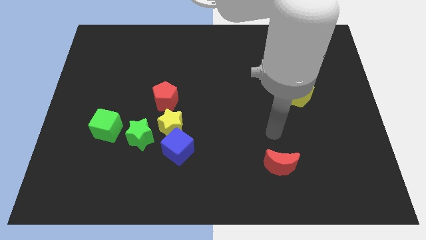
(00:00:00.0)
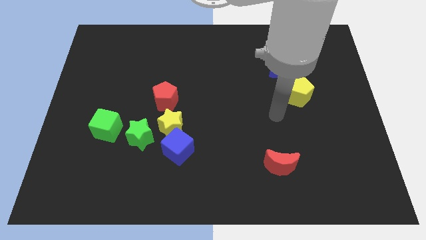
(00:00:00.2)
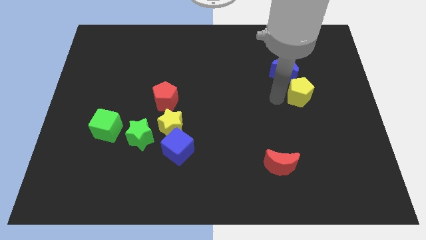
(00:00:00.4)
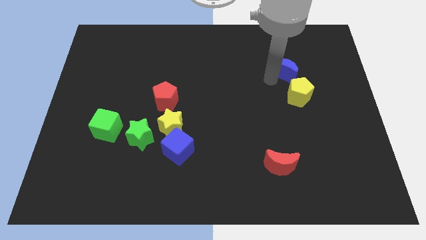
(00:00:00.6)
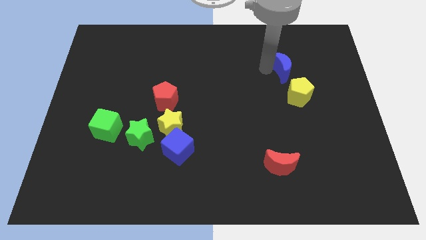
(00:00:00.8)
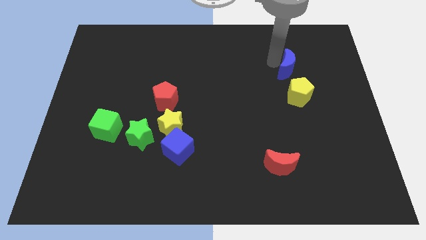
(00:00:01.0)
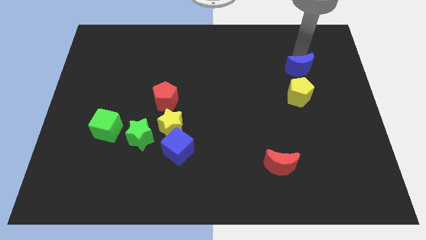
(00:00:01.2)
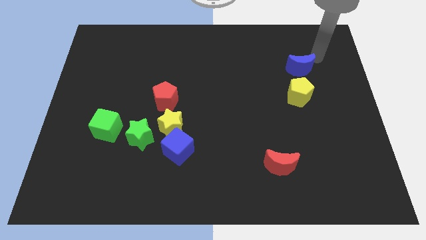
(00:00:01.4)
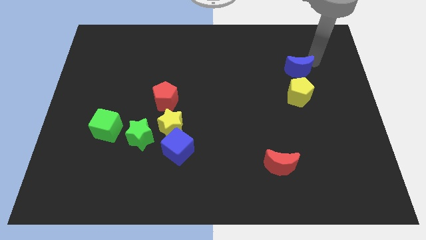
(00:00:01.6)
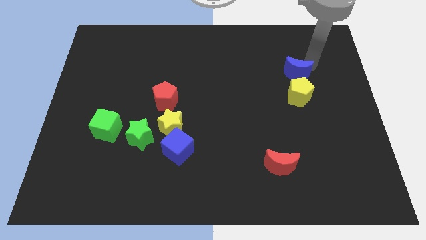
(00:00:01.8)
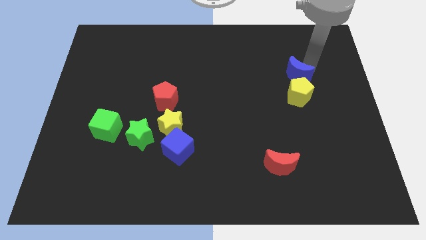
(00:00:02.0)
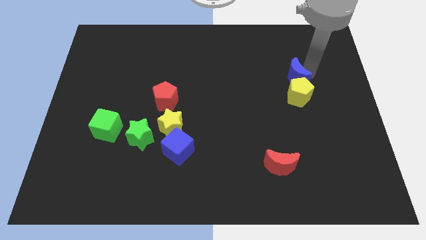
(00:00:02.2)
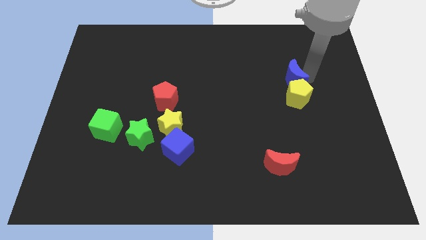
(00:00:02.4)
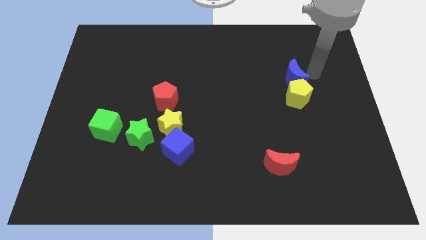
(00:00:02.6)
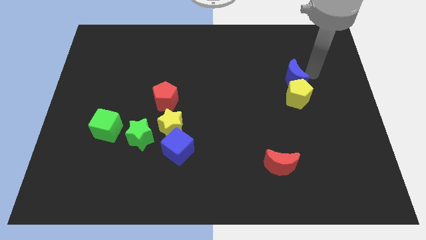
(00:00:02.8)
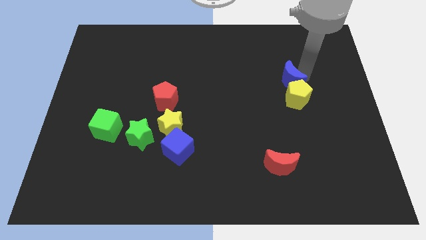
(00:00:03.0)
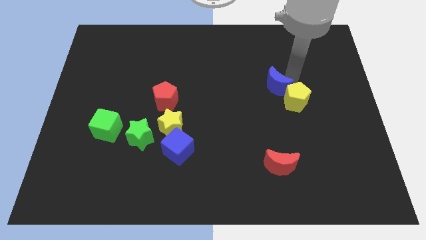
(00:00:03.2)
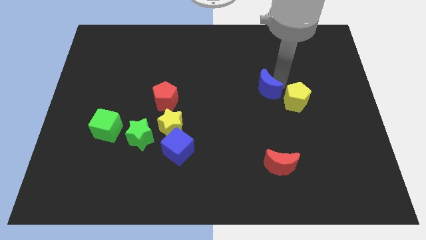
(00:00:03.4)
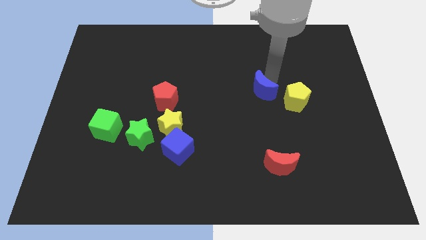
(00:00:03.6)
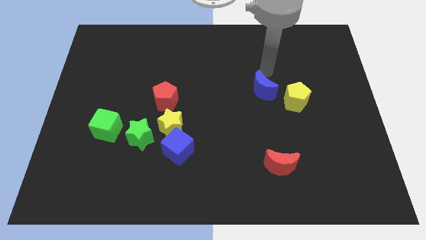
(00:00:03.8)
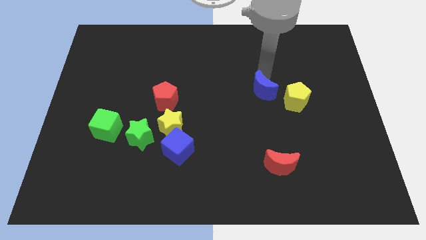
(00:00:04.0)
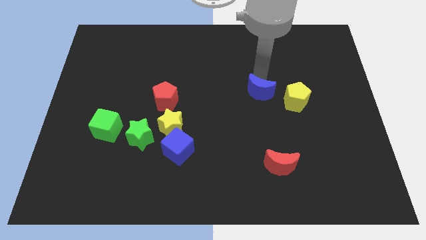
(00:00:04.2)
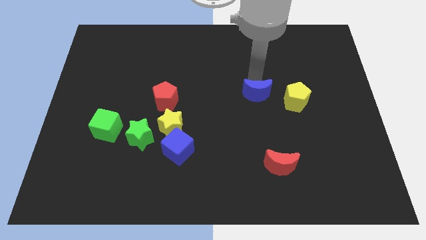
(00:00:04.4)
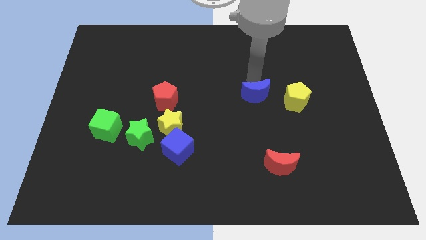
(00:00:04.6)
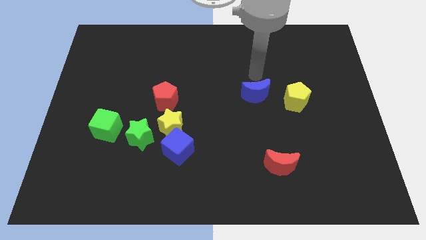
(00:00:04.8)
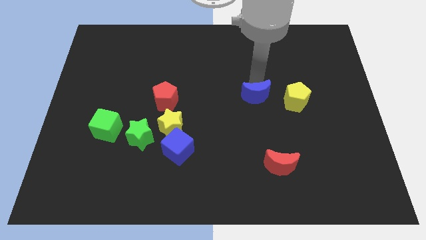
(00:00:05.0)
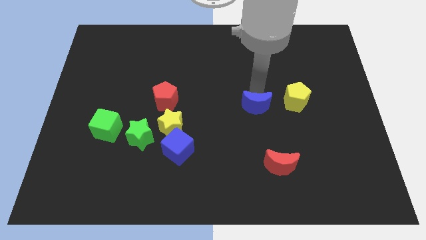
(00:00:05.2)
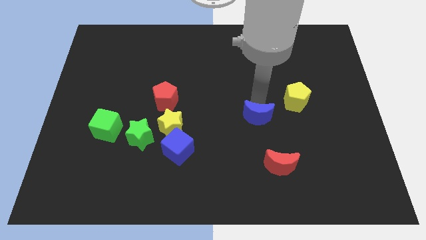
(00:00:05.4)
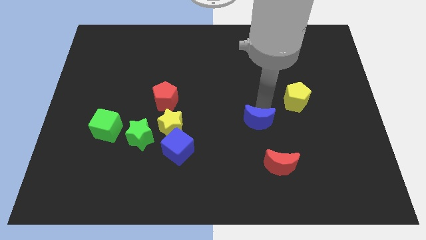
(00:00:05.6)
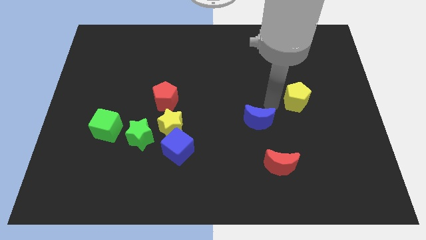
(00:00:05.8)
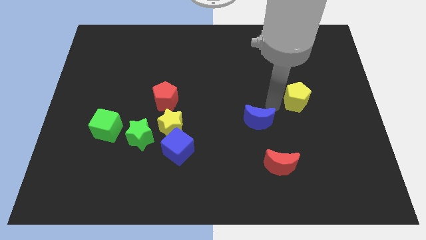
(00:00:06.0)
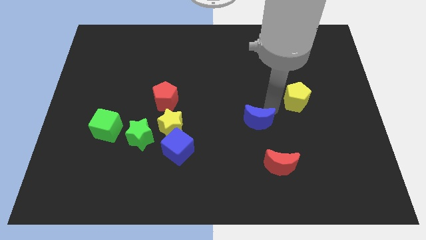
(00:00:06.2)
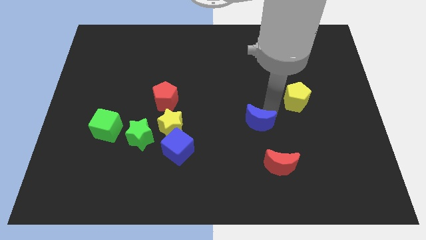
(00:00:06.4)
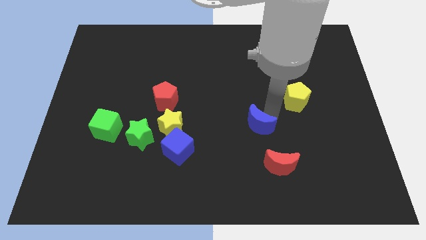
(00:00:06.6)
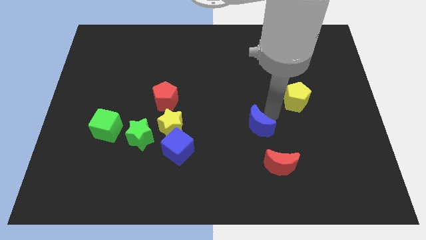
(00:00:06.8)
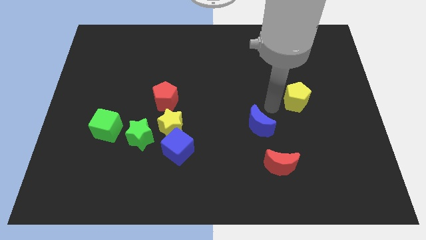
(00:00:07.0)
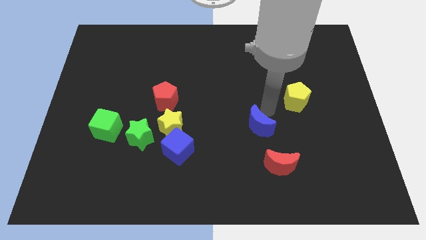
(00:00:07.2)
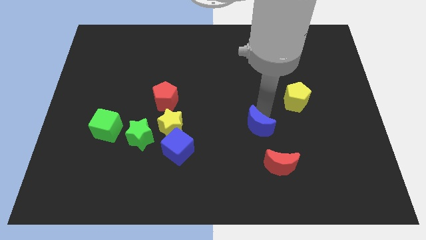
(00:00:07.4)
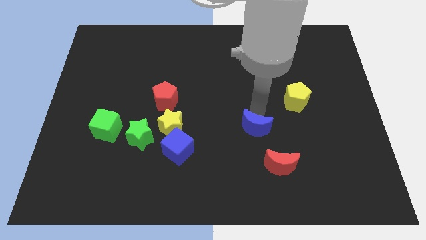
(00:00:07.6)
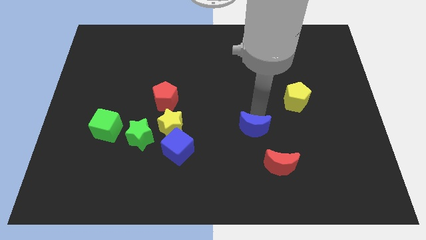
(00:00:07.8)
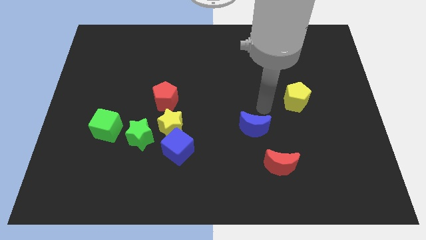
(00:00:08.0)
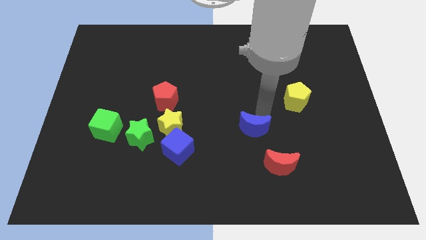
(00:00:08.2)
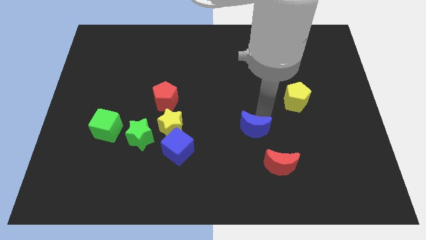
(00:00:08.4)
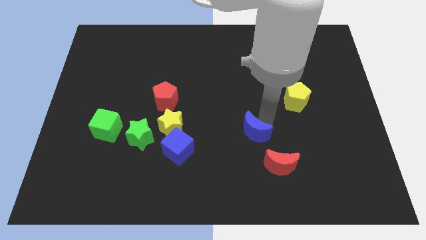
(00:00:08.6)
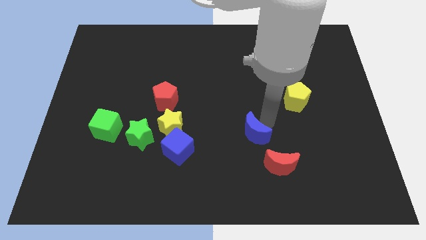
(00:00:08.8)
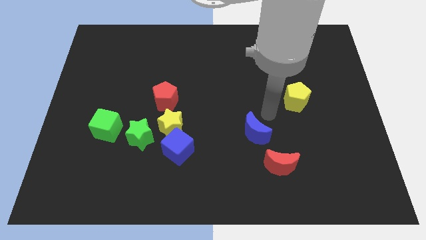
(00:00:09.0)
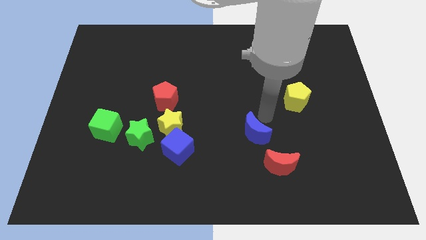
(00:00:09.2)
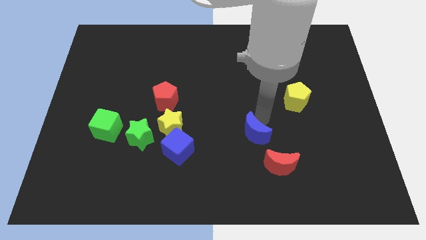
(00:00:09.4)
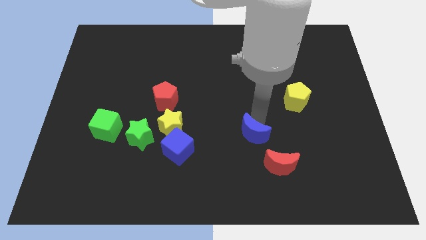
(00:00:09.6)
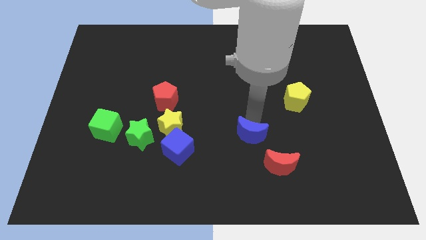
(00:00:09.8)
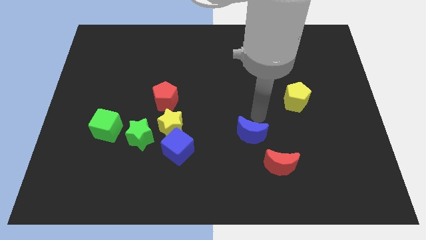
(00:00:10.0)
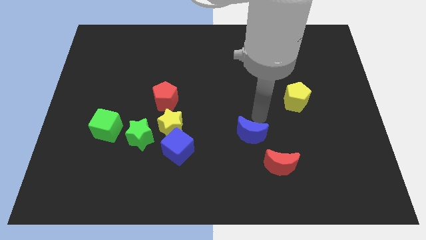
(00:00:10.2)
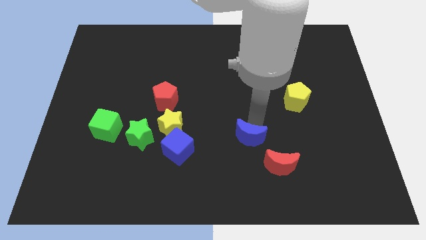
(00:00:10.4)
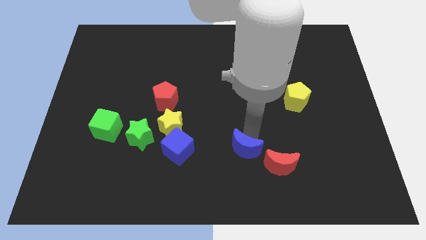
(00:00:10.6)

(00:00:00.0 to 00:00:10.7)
push the blue moon to the left of the red moon

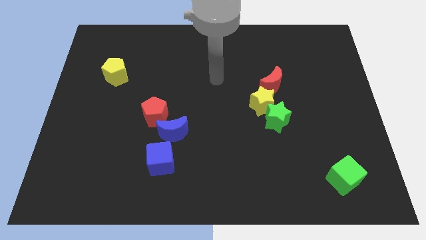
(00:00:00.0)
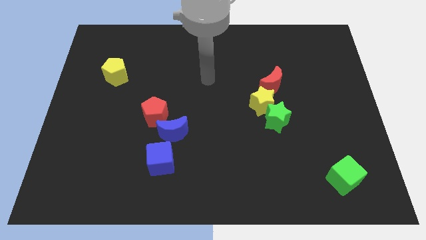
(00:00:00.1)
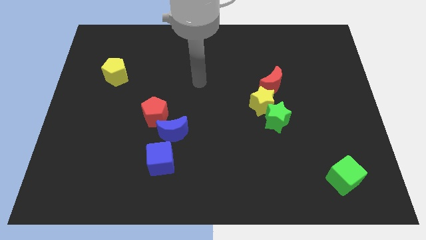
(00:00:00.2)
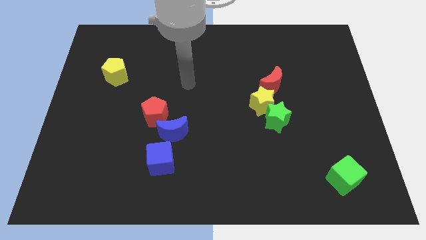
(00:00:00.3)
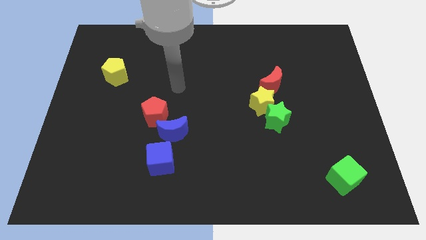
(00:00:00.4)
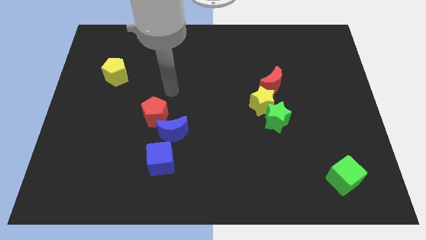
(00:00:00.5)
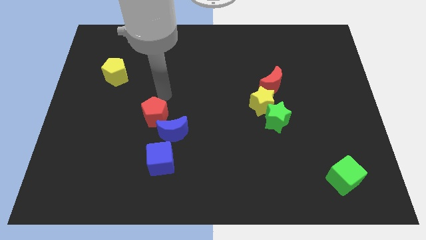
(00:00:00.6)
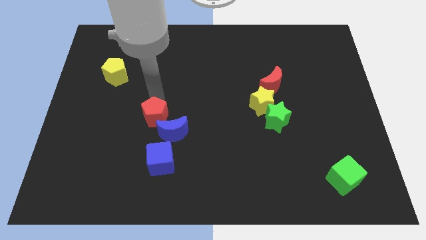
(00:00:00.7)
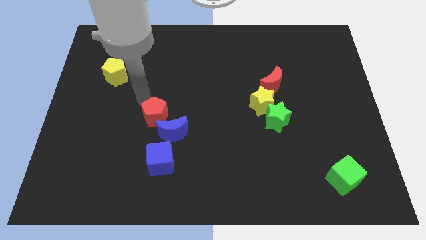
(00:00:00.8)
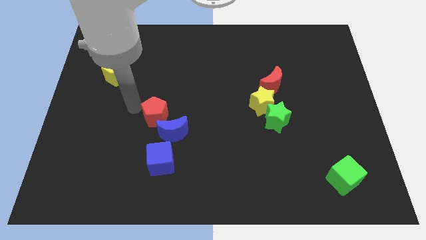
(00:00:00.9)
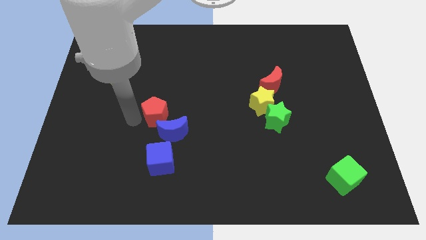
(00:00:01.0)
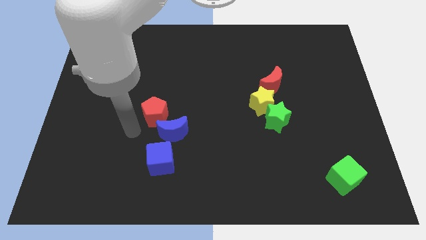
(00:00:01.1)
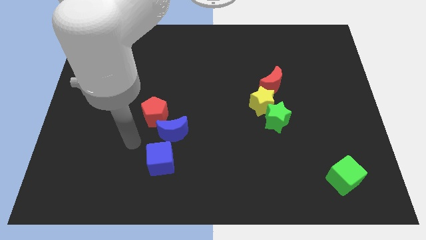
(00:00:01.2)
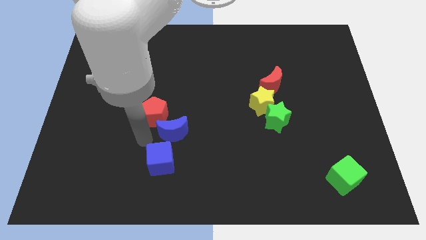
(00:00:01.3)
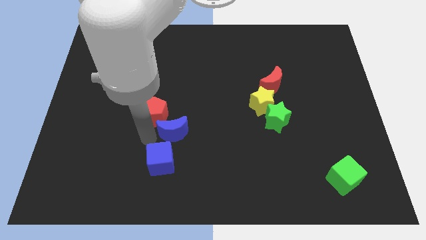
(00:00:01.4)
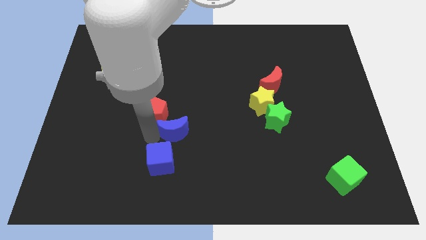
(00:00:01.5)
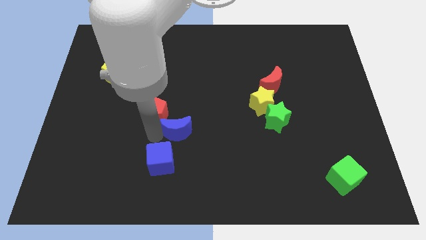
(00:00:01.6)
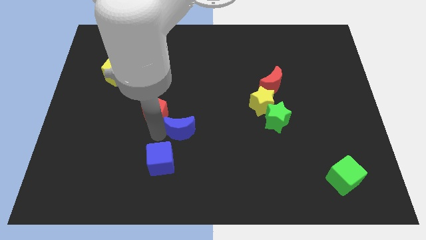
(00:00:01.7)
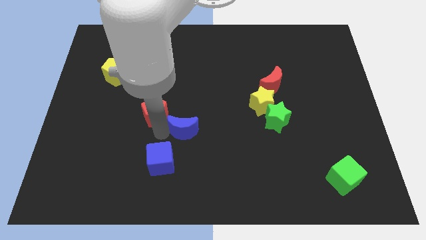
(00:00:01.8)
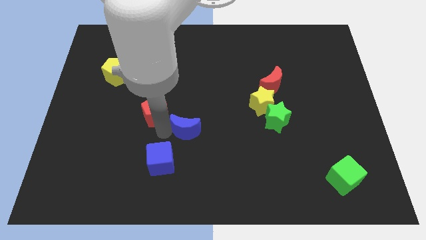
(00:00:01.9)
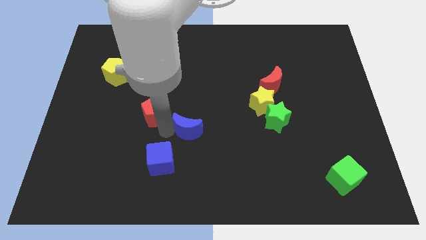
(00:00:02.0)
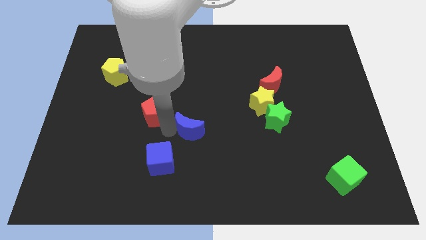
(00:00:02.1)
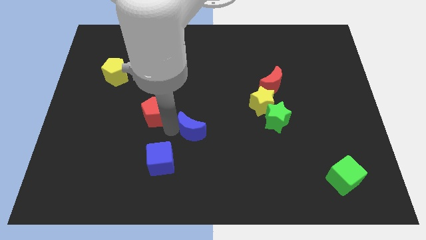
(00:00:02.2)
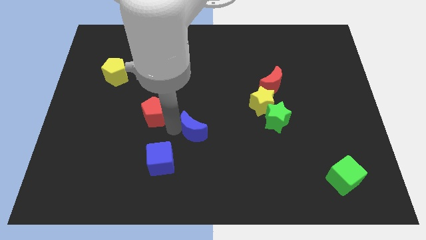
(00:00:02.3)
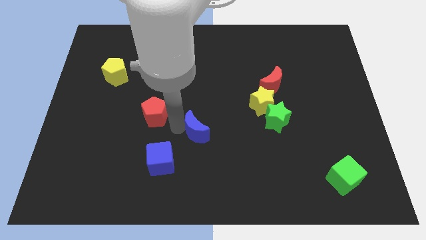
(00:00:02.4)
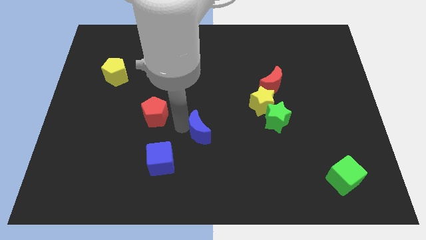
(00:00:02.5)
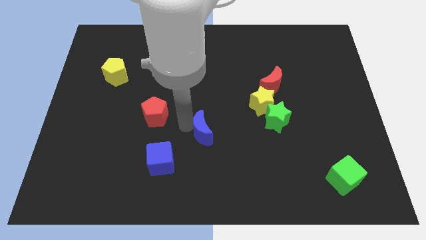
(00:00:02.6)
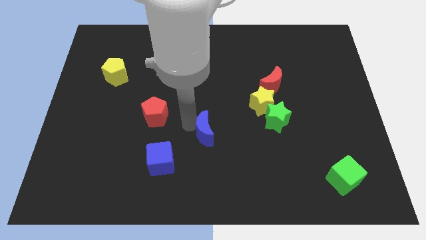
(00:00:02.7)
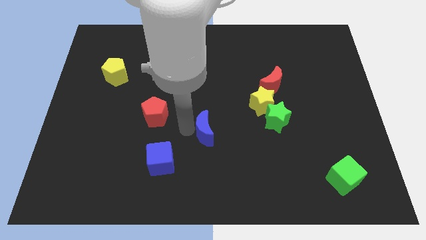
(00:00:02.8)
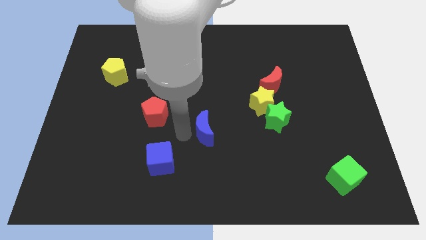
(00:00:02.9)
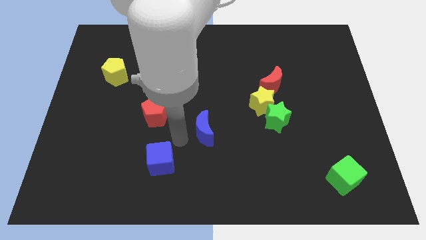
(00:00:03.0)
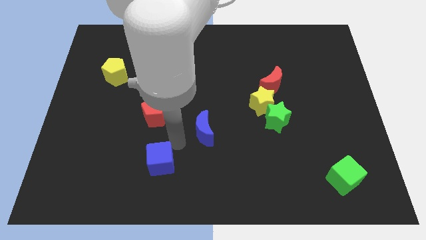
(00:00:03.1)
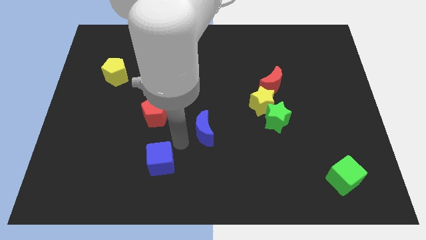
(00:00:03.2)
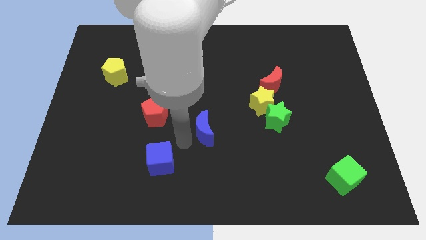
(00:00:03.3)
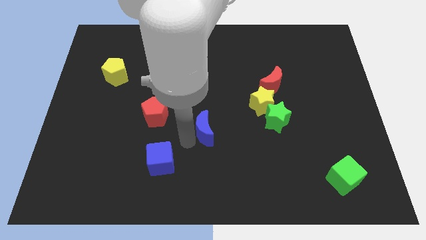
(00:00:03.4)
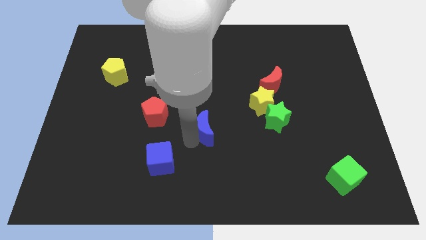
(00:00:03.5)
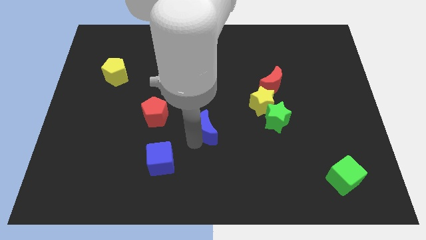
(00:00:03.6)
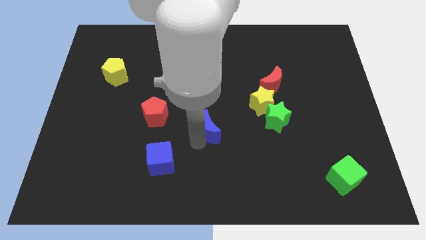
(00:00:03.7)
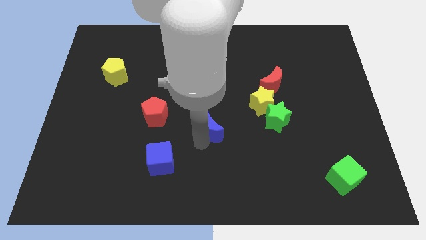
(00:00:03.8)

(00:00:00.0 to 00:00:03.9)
push the blue moon to the left of the green star
